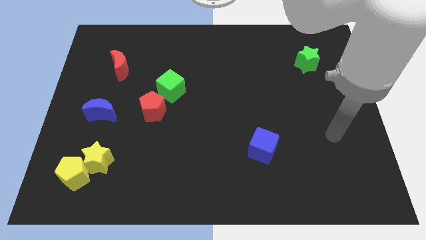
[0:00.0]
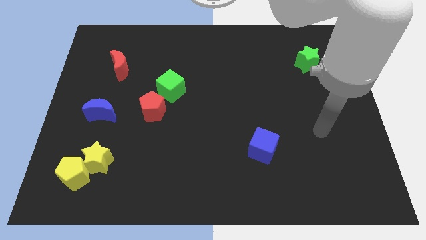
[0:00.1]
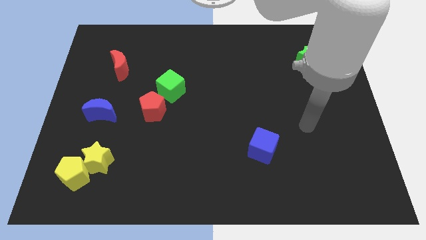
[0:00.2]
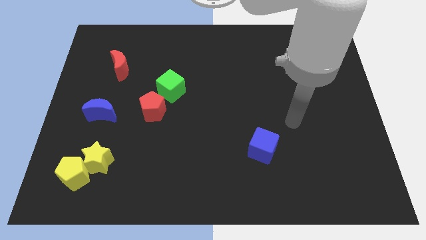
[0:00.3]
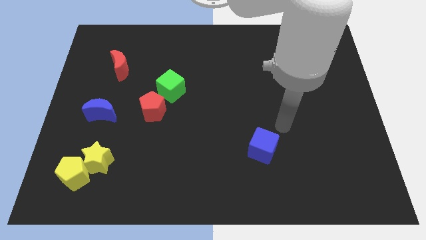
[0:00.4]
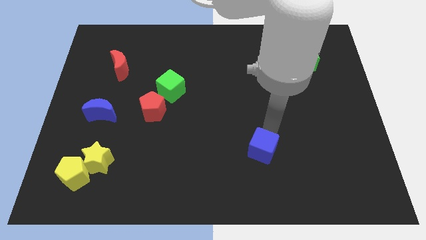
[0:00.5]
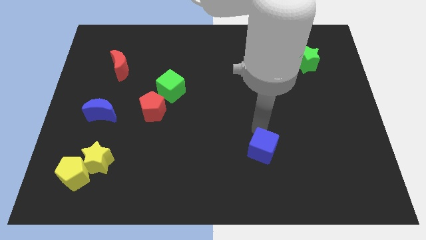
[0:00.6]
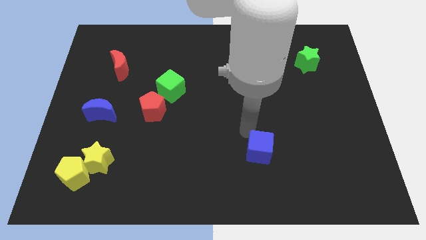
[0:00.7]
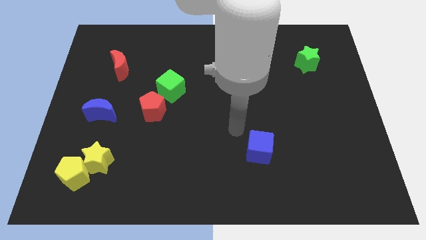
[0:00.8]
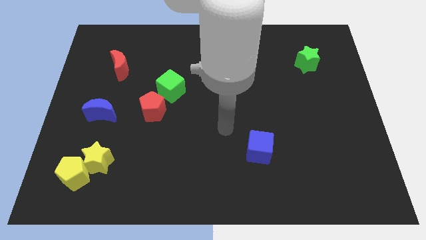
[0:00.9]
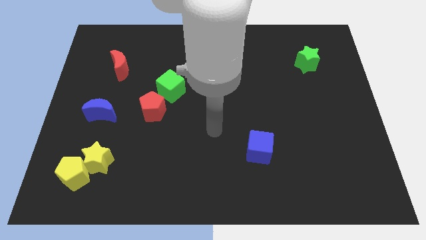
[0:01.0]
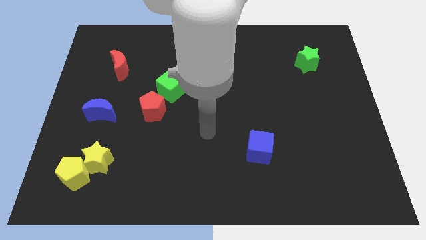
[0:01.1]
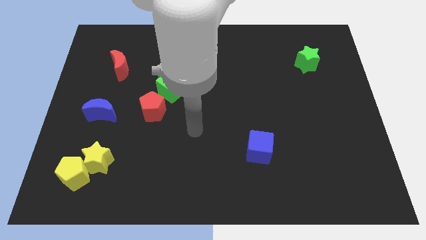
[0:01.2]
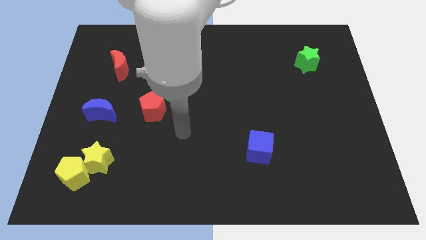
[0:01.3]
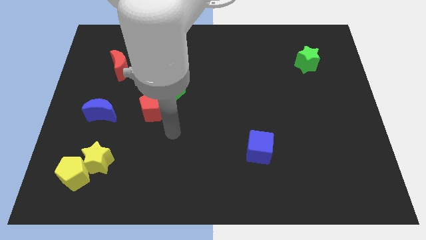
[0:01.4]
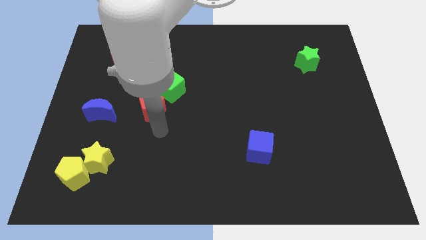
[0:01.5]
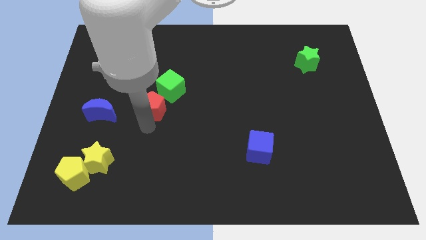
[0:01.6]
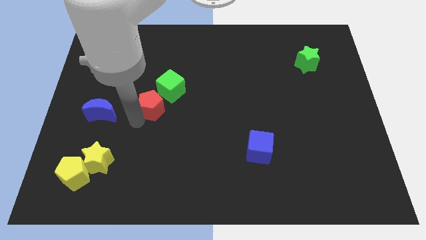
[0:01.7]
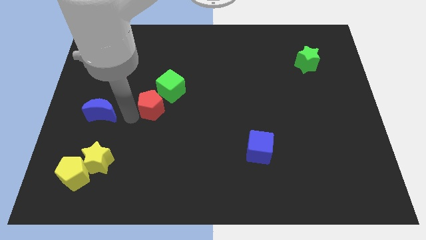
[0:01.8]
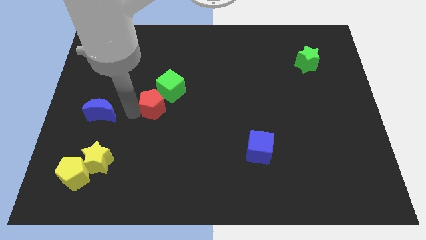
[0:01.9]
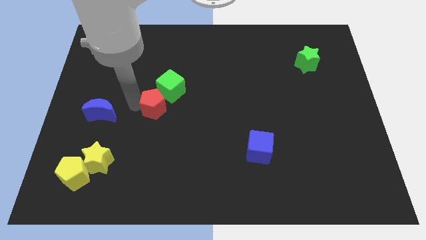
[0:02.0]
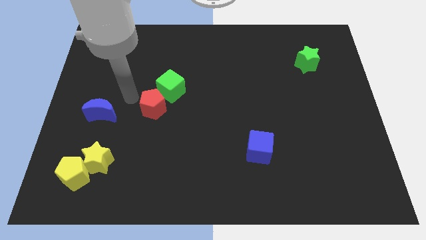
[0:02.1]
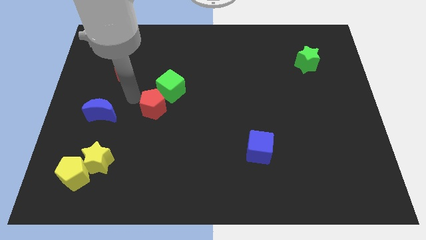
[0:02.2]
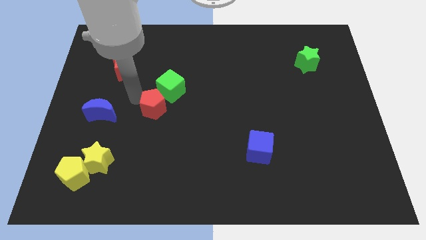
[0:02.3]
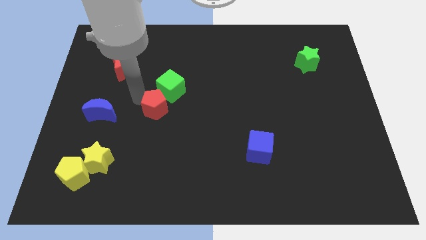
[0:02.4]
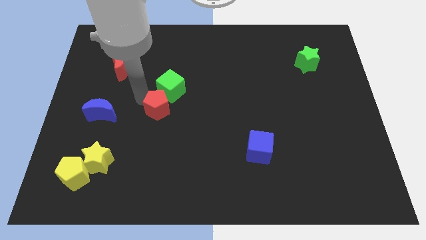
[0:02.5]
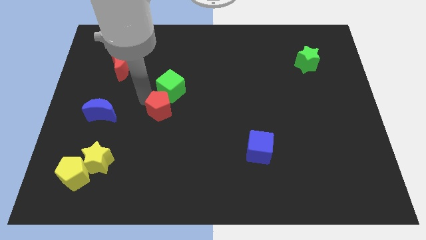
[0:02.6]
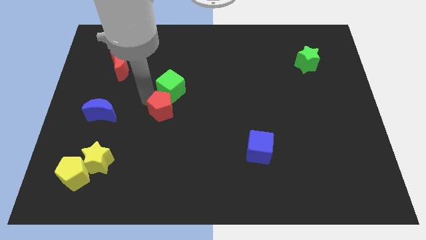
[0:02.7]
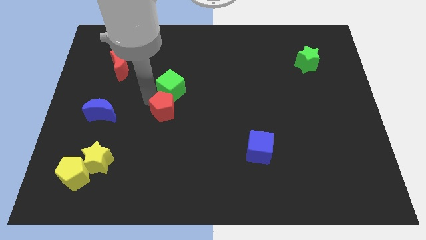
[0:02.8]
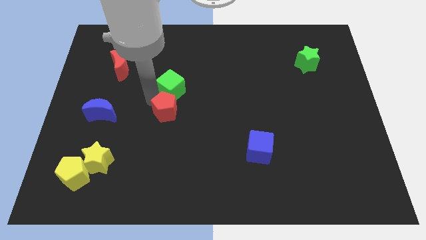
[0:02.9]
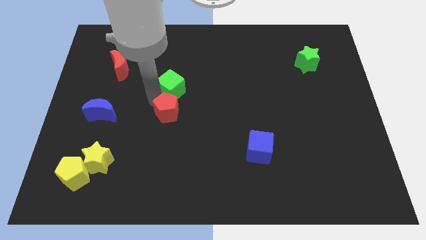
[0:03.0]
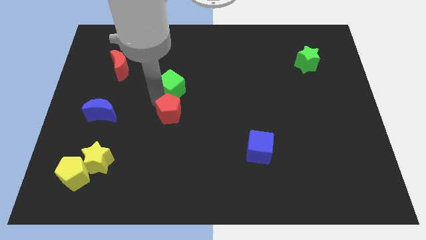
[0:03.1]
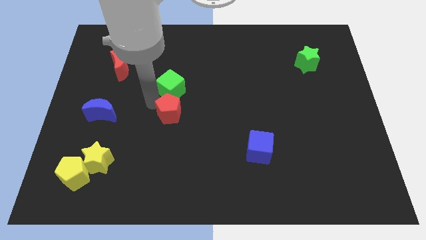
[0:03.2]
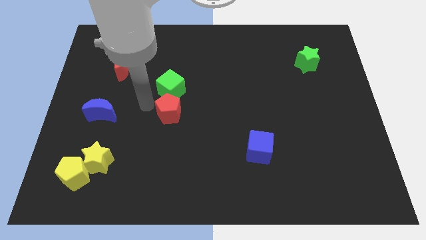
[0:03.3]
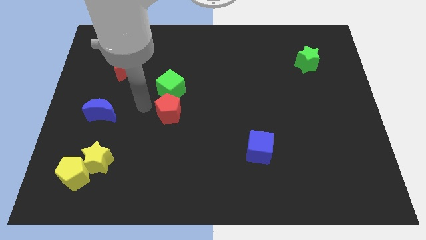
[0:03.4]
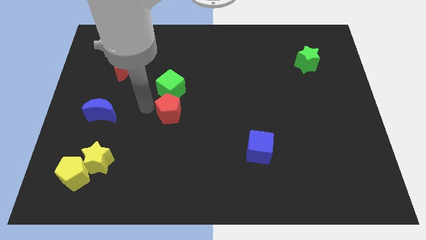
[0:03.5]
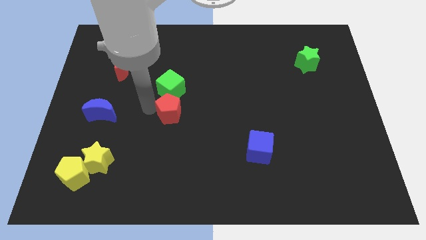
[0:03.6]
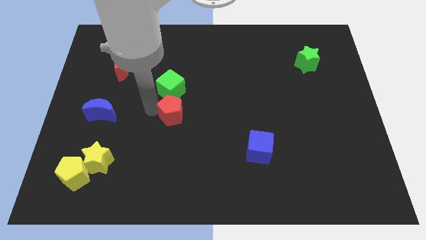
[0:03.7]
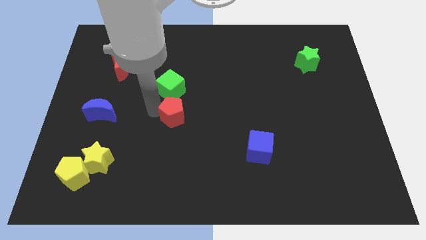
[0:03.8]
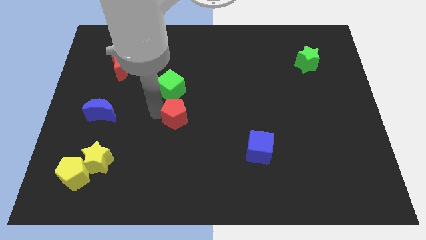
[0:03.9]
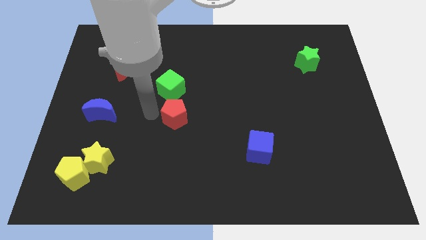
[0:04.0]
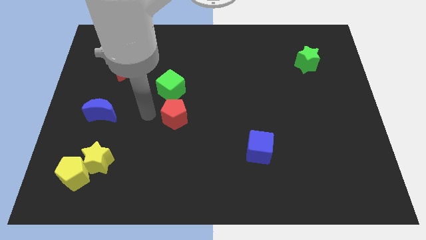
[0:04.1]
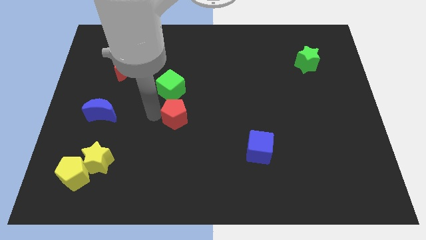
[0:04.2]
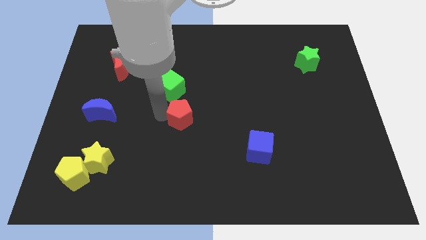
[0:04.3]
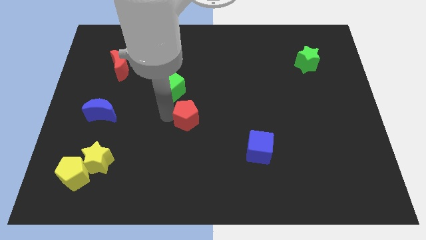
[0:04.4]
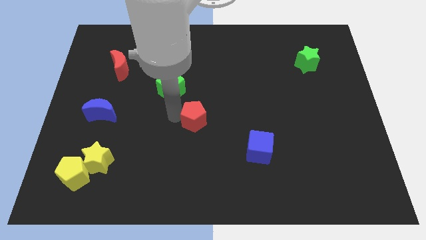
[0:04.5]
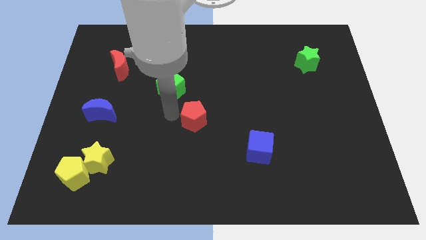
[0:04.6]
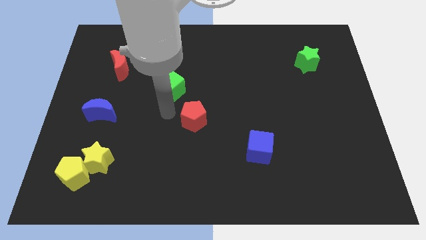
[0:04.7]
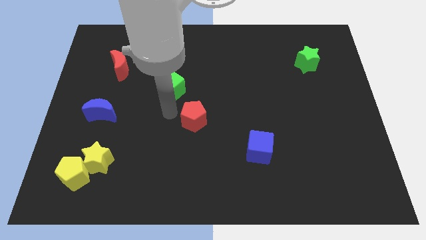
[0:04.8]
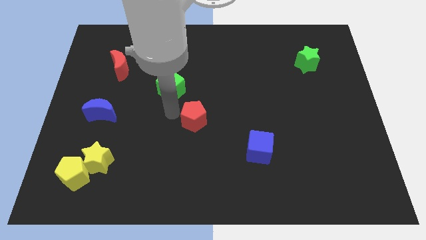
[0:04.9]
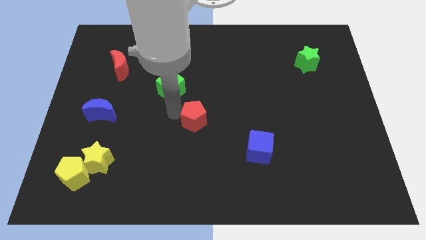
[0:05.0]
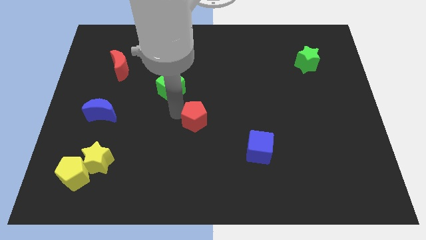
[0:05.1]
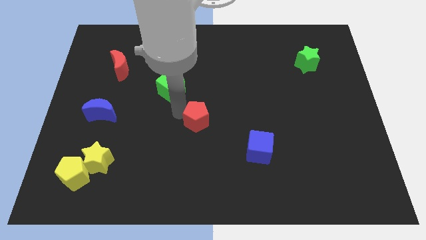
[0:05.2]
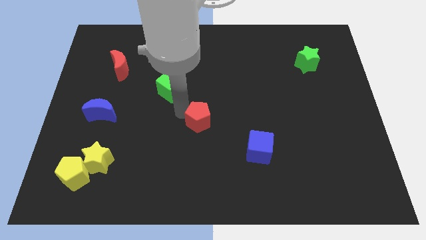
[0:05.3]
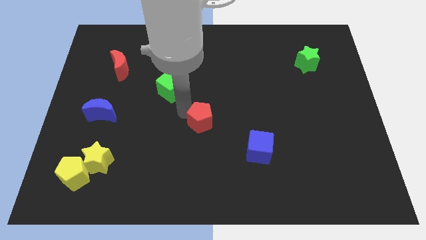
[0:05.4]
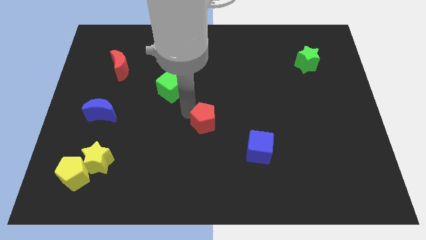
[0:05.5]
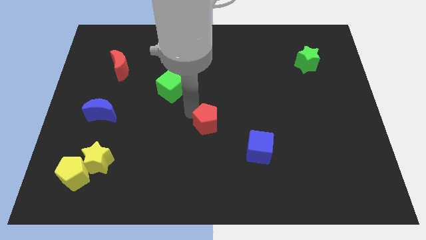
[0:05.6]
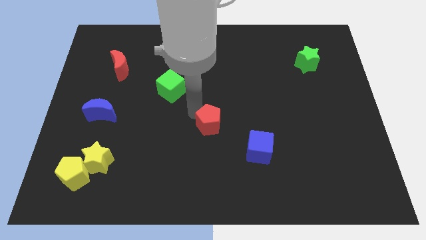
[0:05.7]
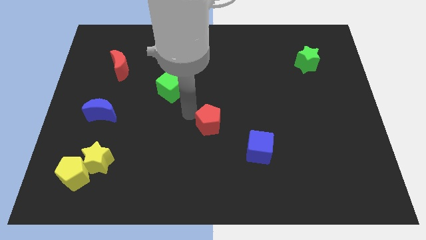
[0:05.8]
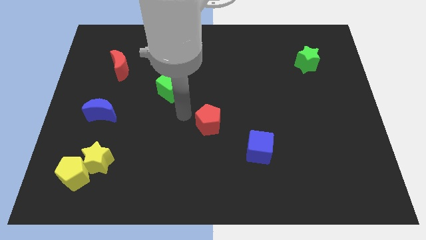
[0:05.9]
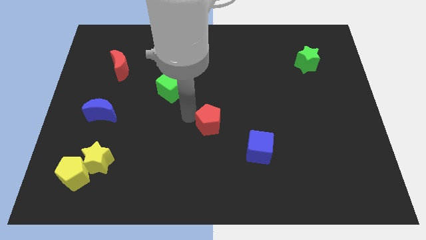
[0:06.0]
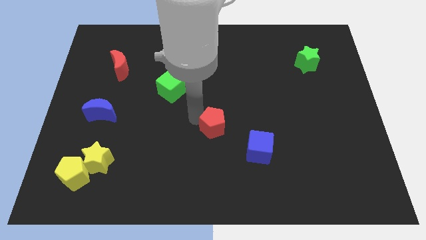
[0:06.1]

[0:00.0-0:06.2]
push the red pentagon to the top left of the blue cube

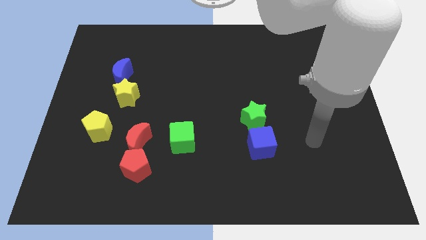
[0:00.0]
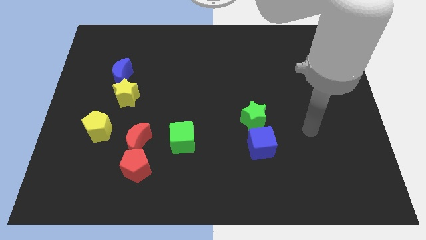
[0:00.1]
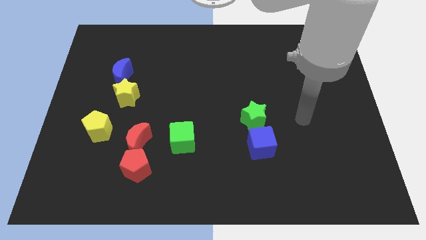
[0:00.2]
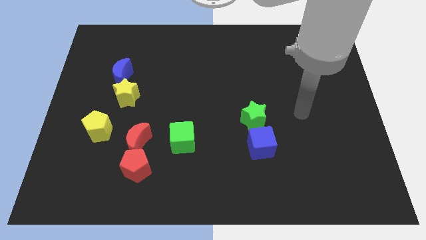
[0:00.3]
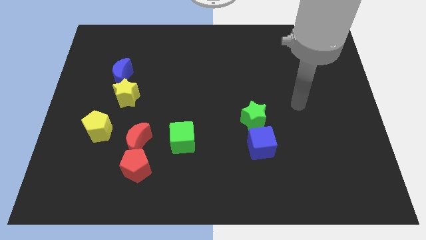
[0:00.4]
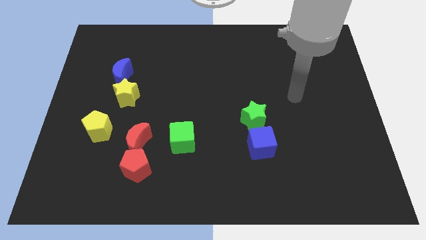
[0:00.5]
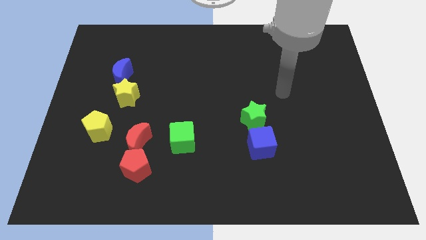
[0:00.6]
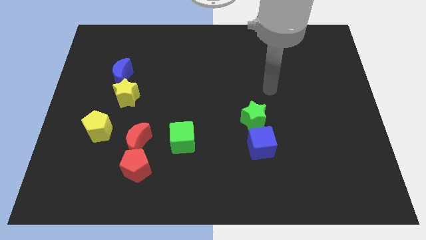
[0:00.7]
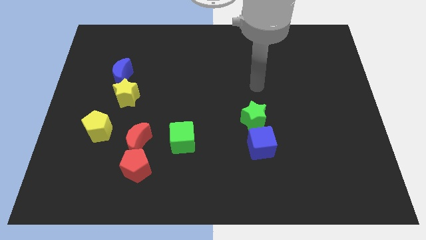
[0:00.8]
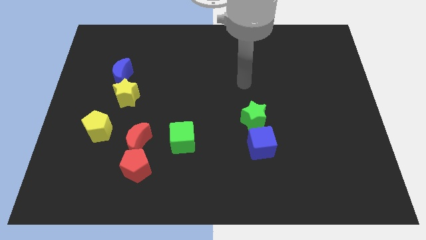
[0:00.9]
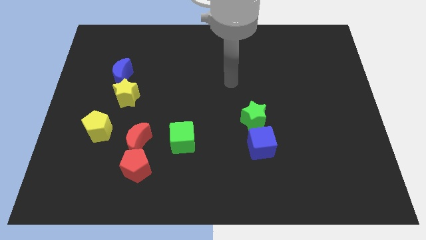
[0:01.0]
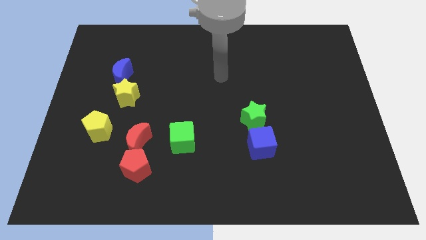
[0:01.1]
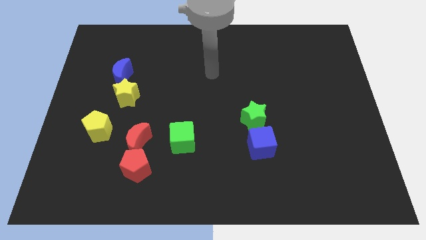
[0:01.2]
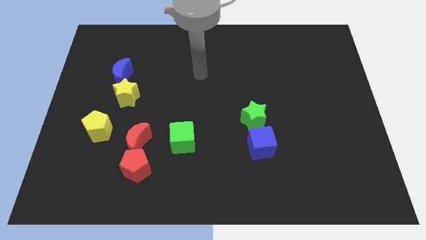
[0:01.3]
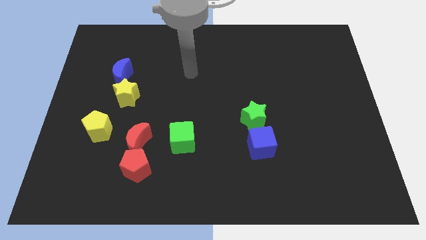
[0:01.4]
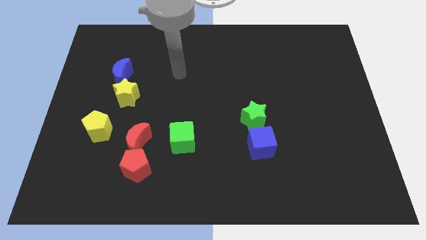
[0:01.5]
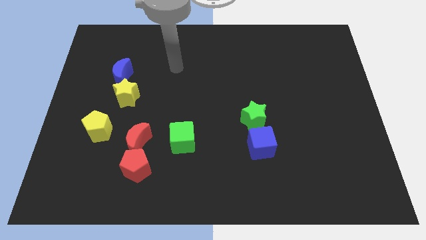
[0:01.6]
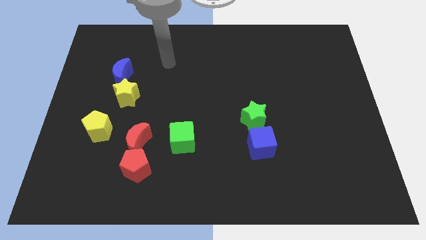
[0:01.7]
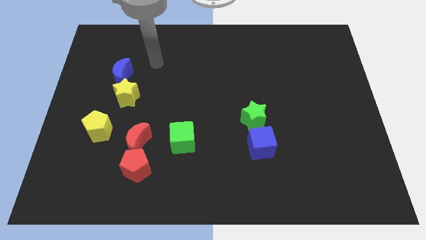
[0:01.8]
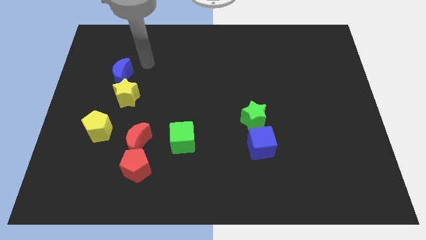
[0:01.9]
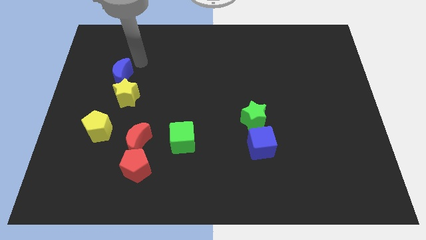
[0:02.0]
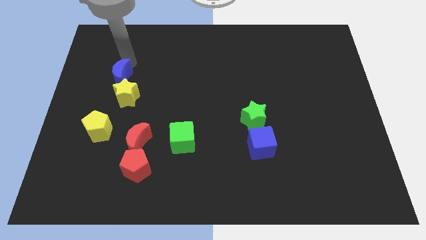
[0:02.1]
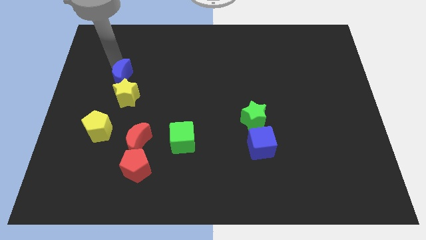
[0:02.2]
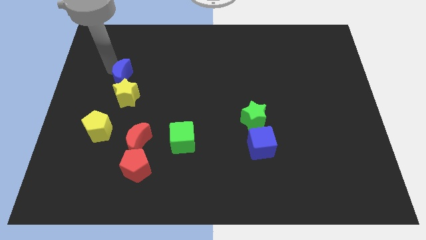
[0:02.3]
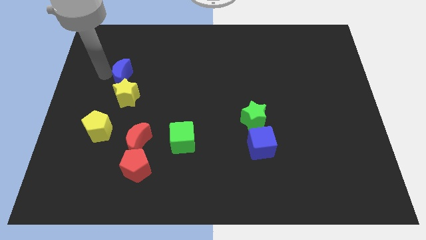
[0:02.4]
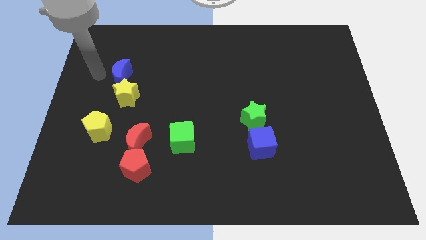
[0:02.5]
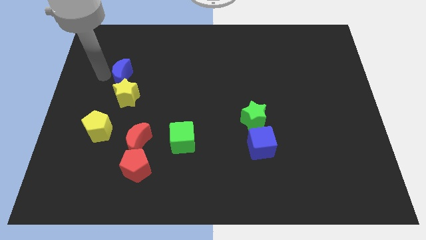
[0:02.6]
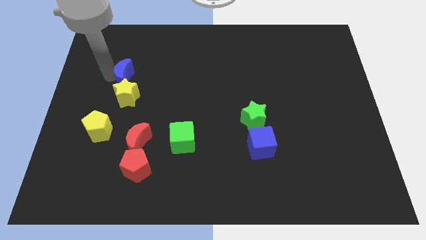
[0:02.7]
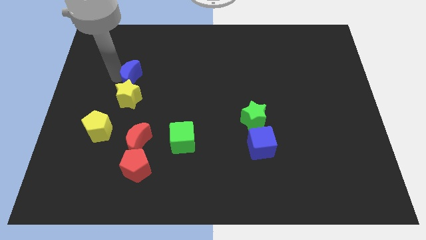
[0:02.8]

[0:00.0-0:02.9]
push the blue moon to the top right side of the yellow star
